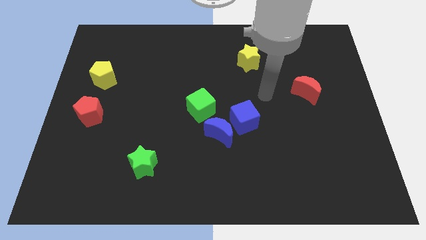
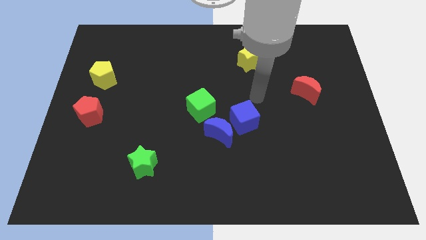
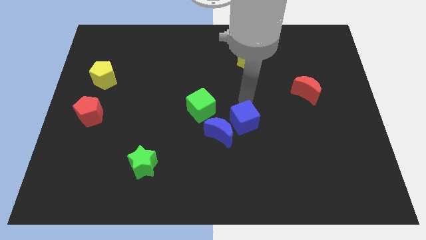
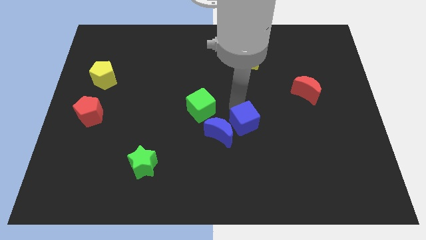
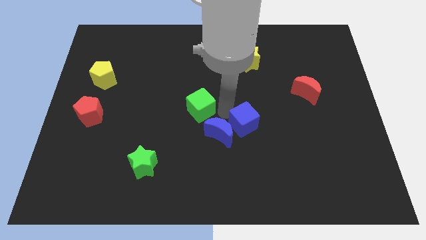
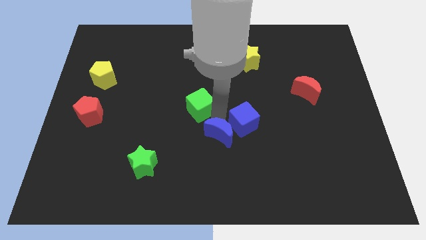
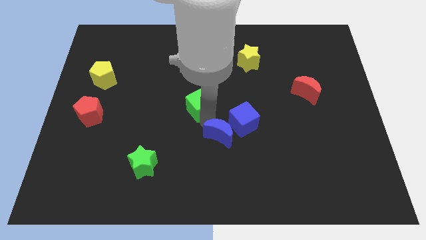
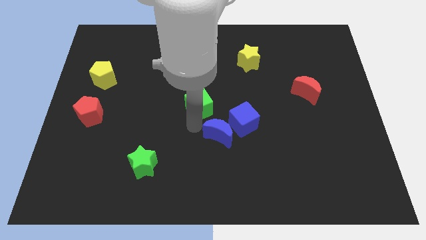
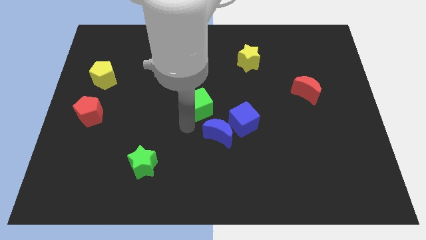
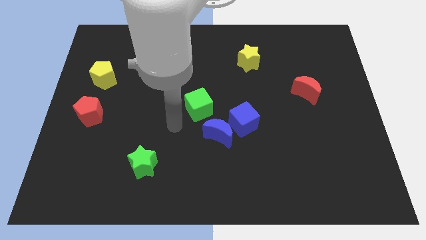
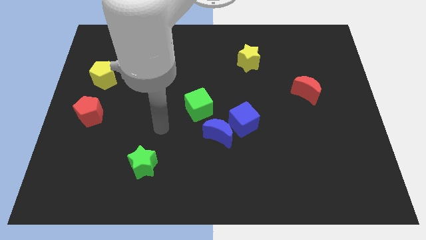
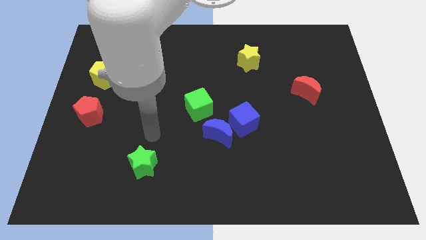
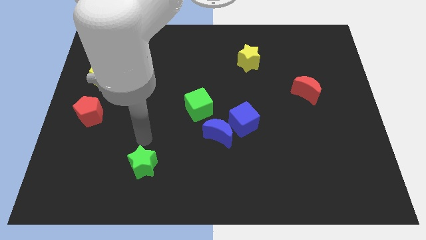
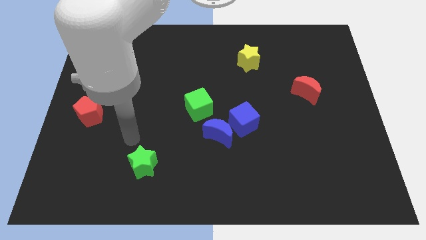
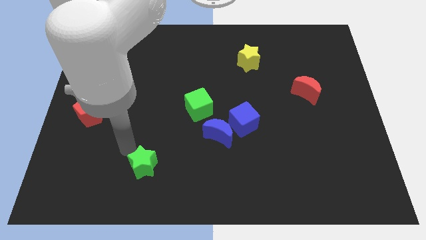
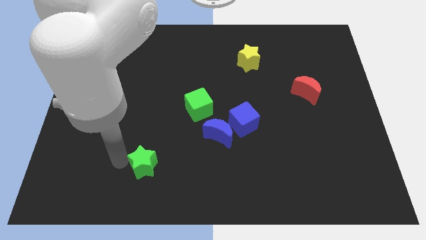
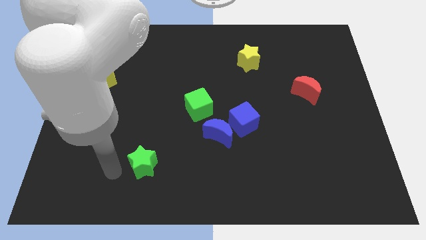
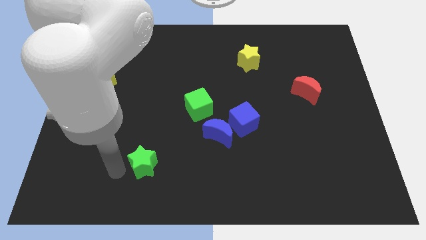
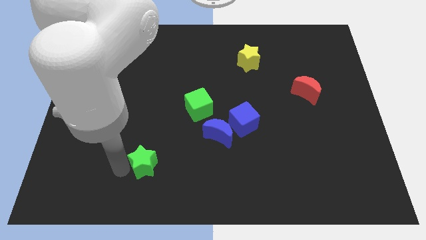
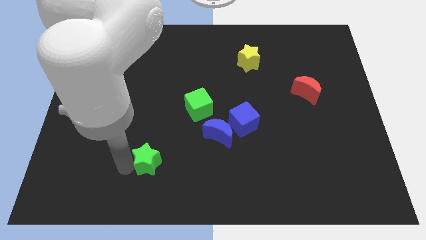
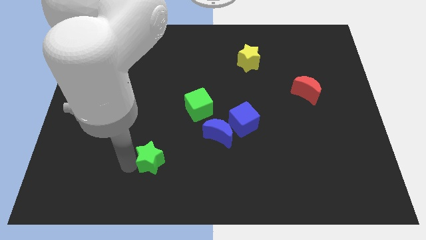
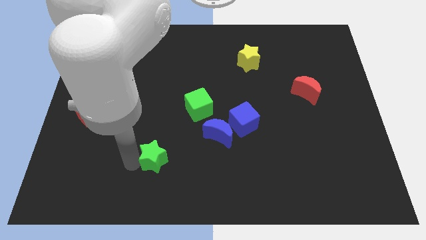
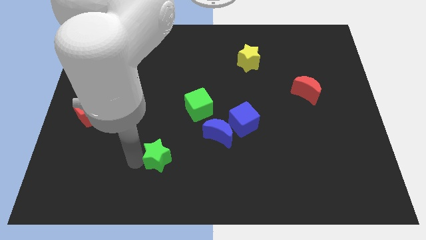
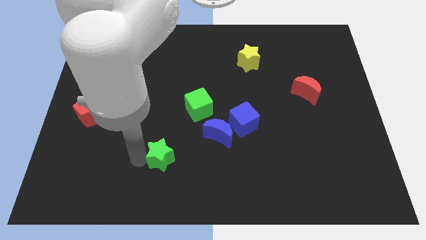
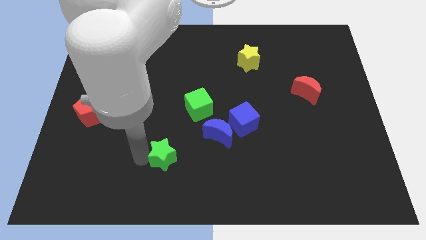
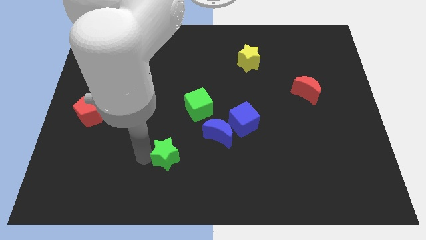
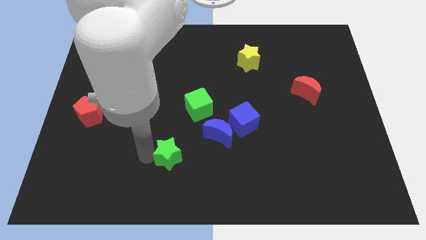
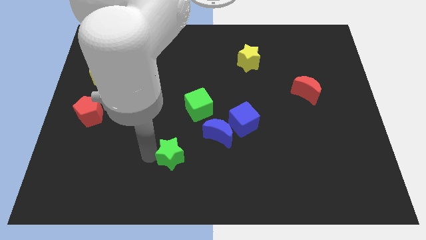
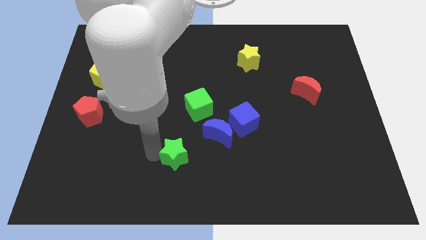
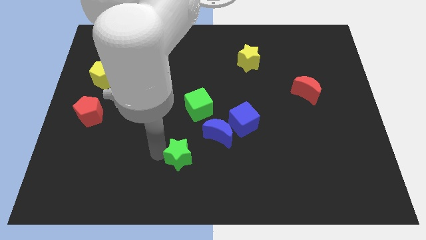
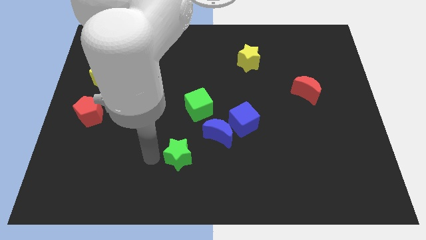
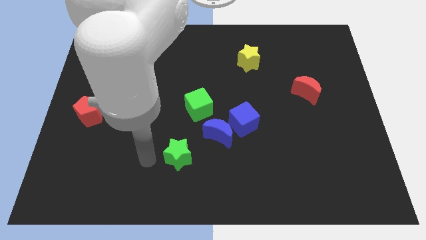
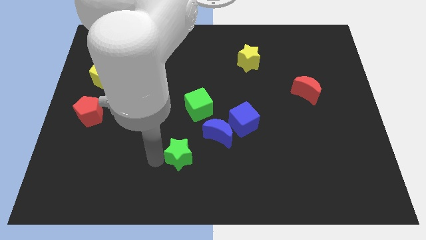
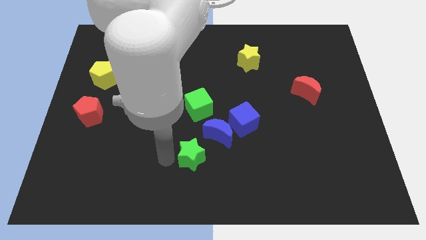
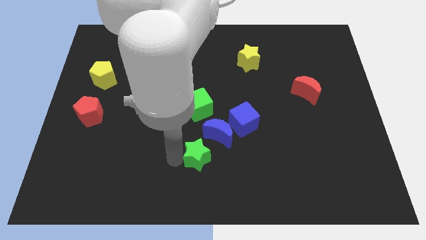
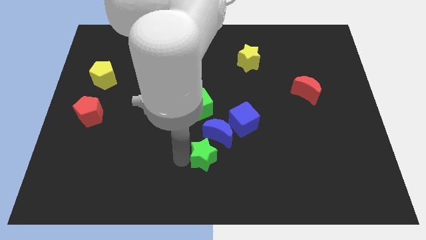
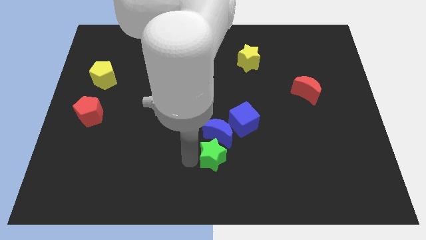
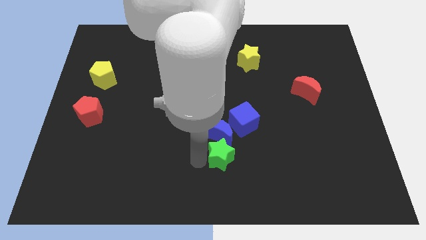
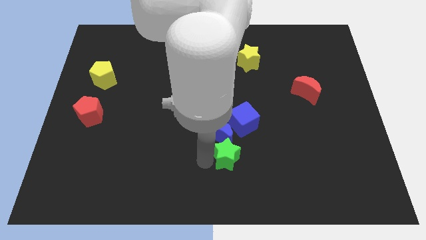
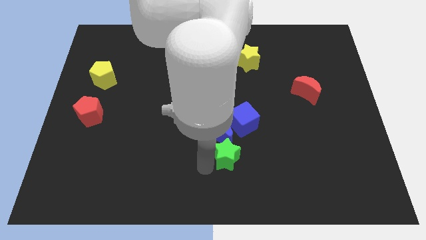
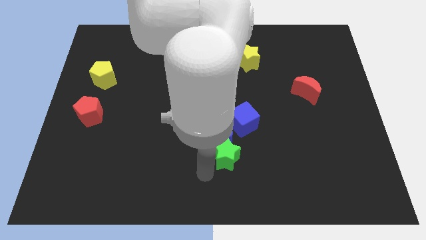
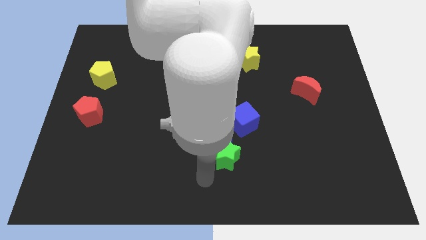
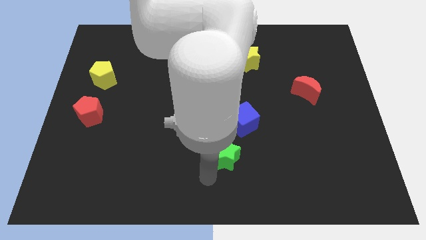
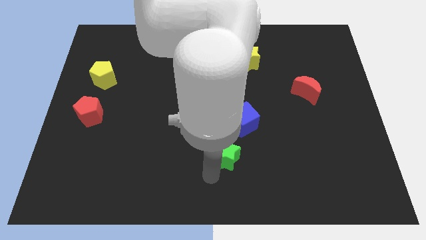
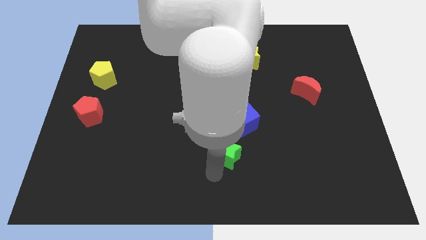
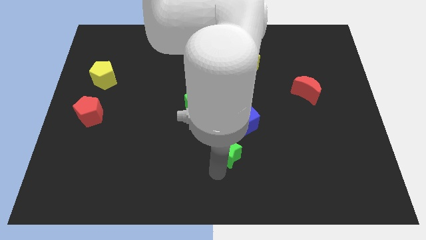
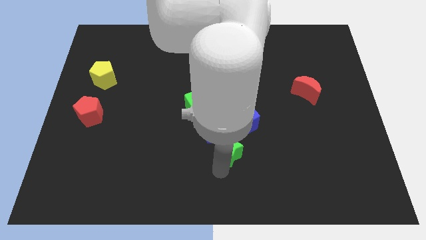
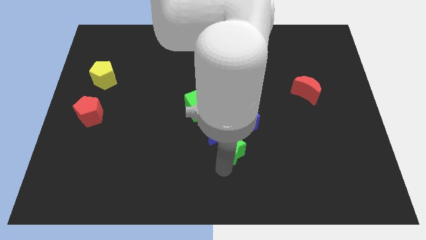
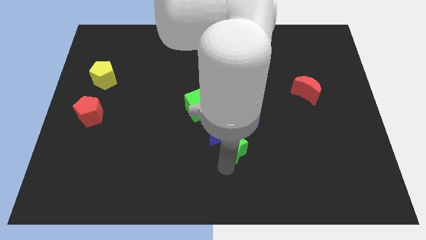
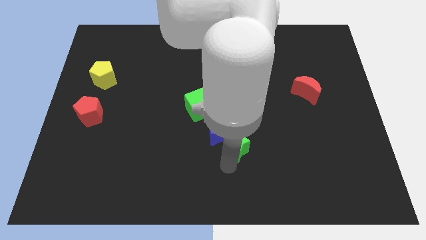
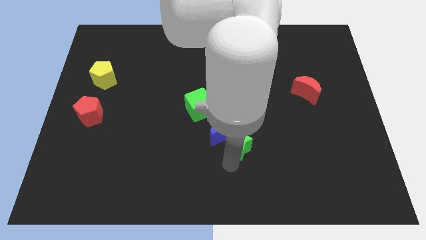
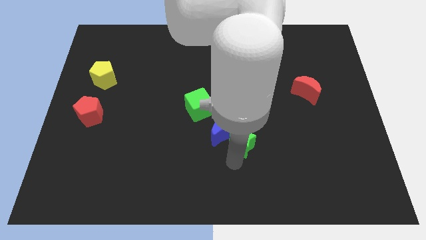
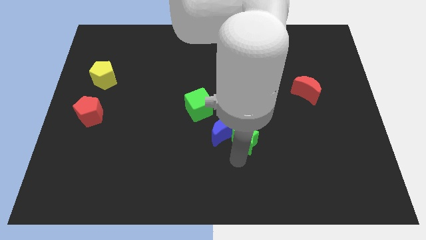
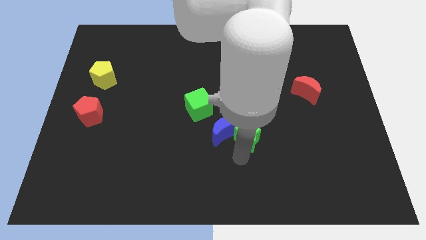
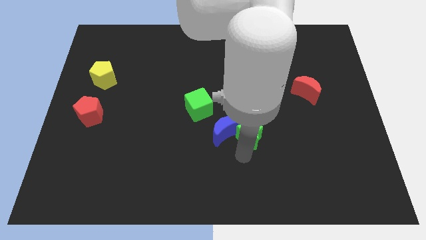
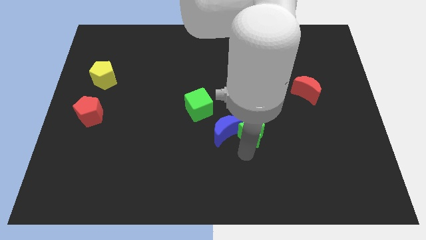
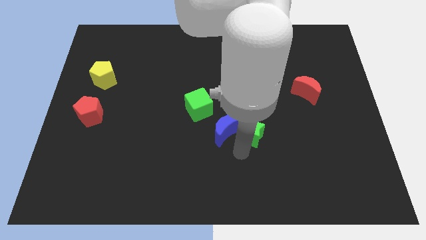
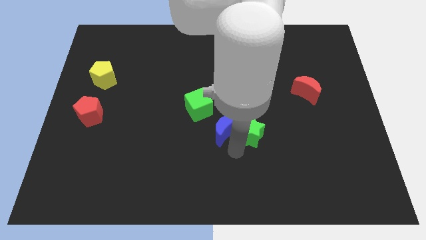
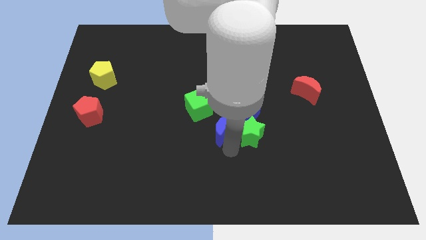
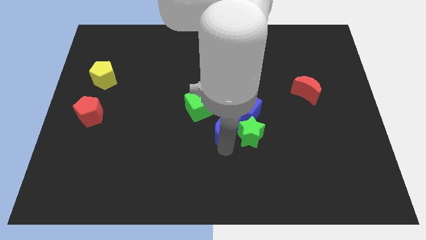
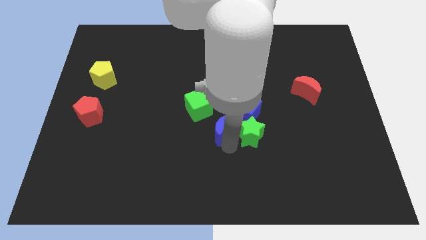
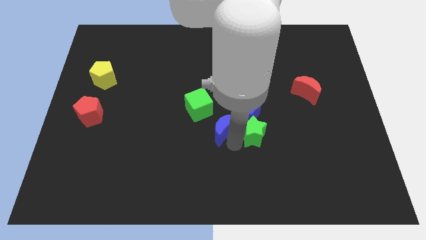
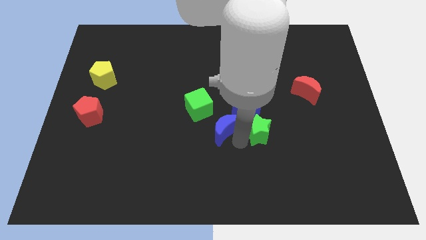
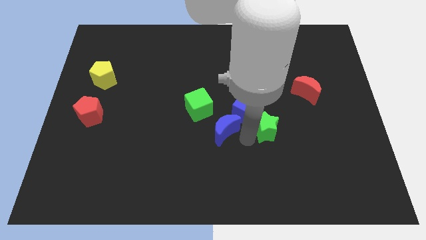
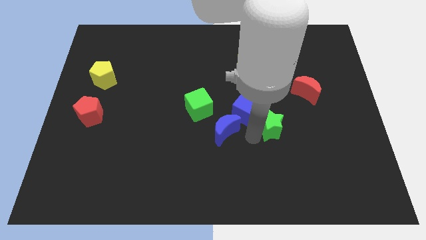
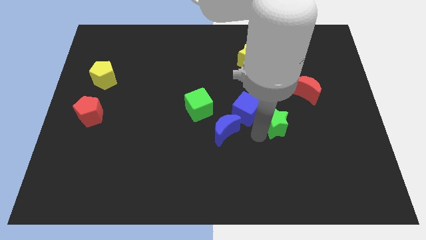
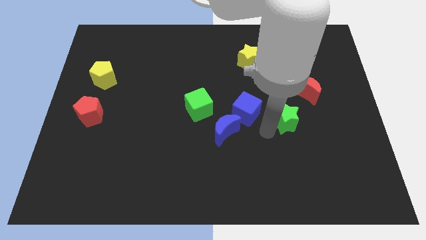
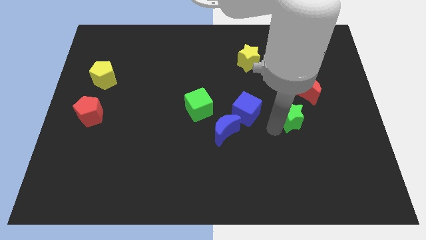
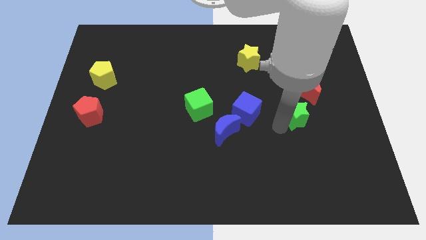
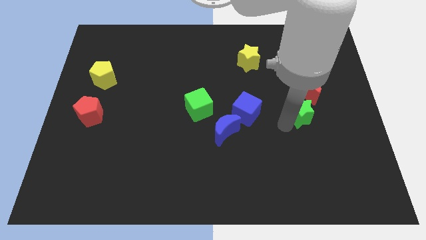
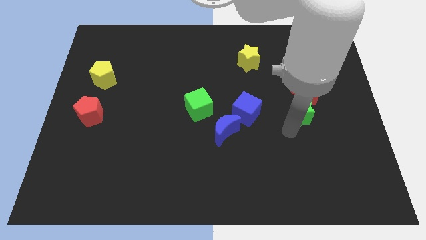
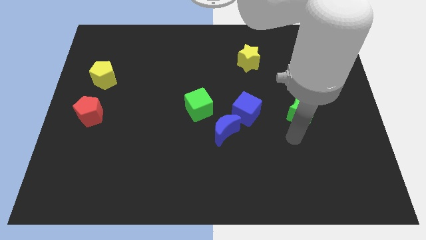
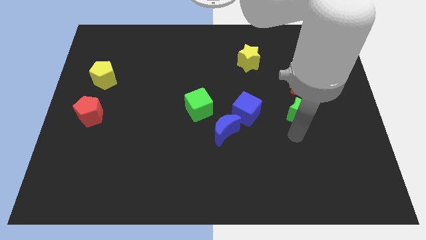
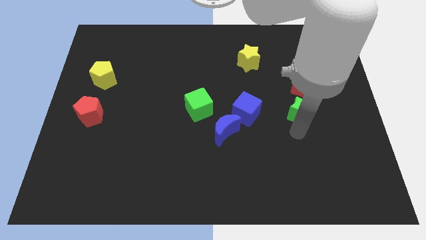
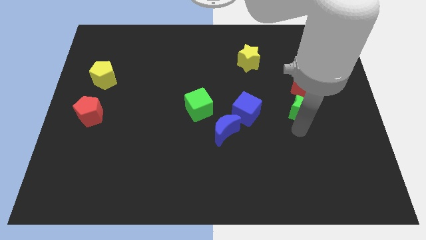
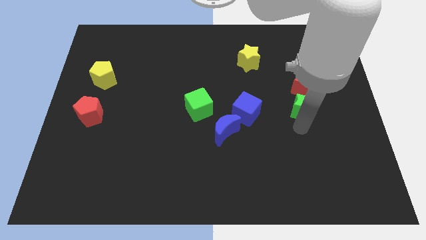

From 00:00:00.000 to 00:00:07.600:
put the green star towards the red moon
